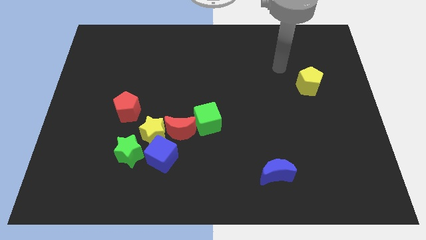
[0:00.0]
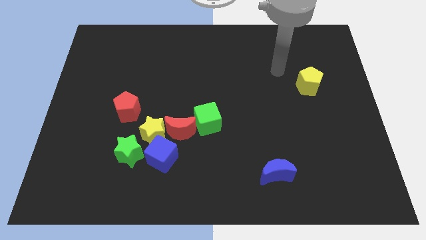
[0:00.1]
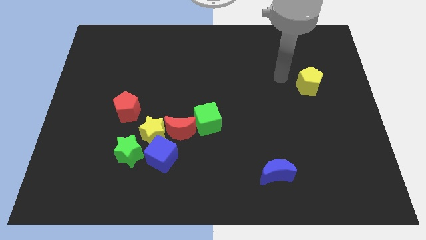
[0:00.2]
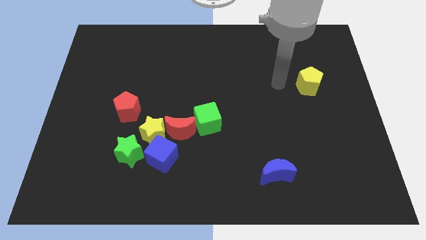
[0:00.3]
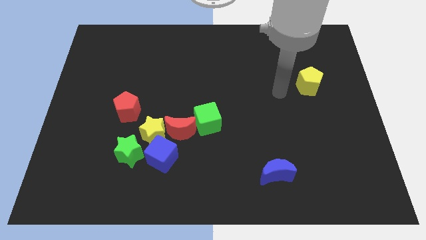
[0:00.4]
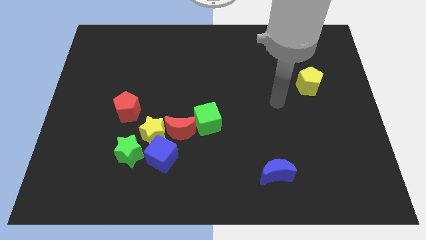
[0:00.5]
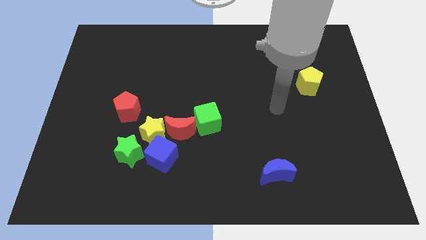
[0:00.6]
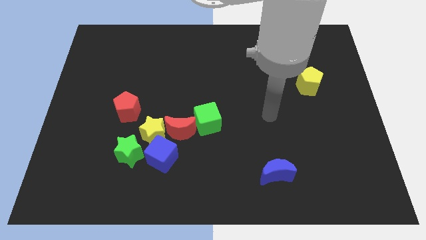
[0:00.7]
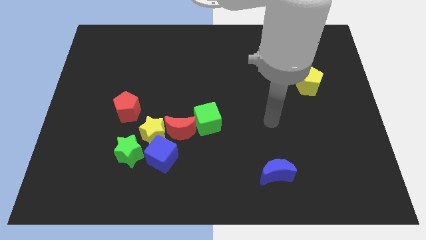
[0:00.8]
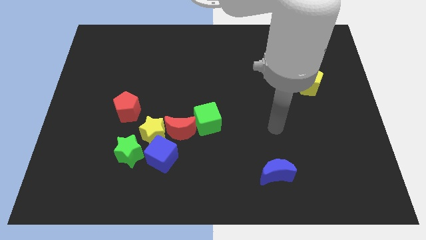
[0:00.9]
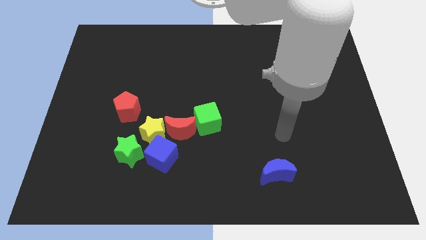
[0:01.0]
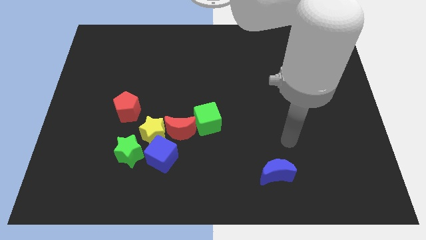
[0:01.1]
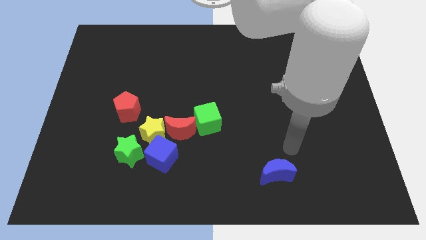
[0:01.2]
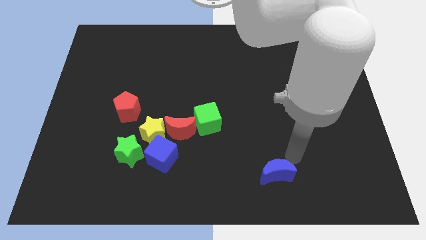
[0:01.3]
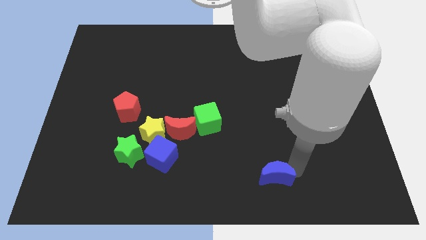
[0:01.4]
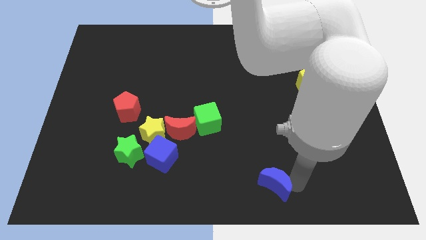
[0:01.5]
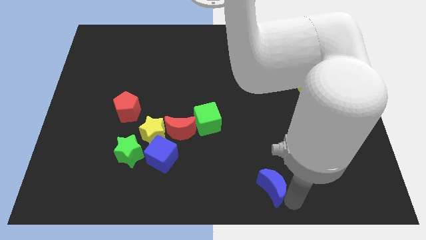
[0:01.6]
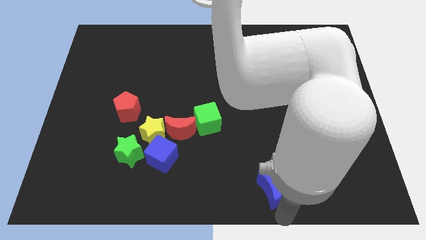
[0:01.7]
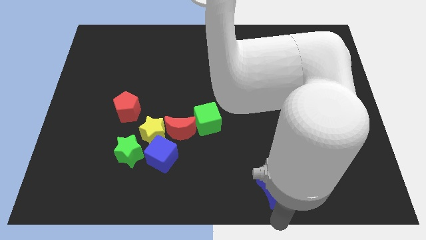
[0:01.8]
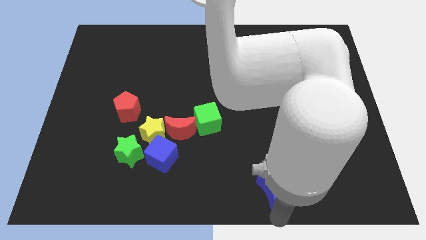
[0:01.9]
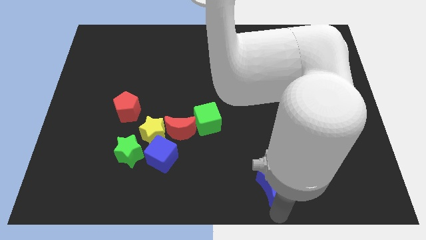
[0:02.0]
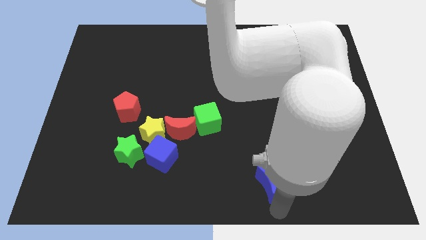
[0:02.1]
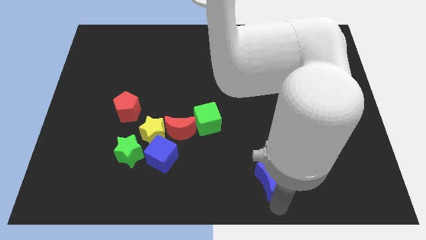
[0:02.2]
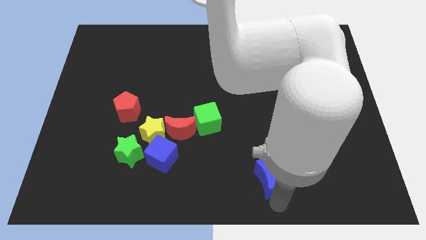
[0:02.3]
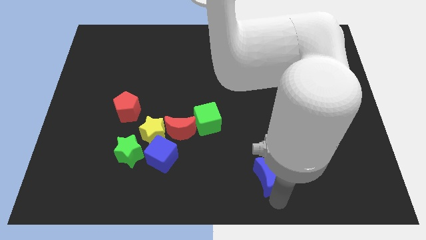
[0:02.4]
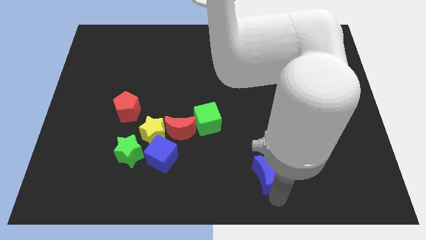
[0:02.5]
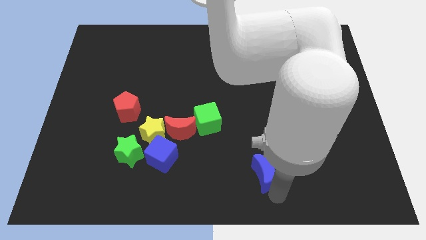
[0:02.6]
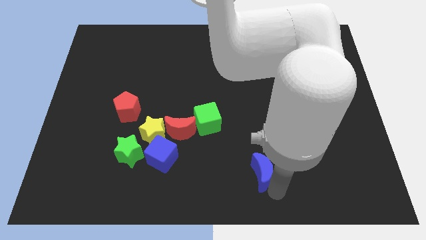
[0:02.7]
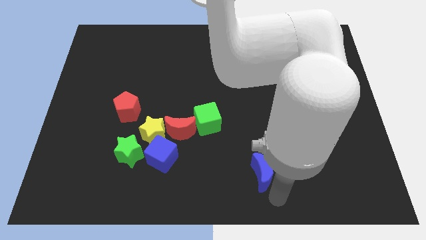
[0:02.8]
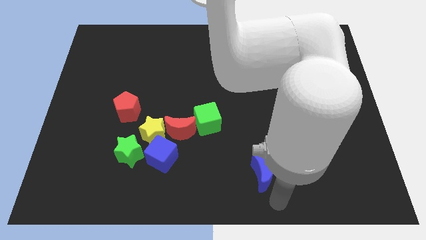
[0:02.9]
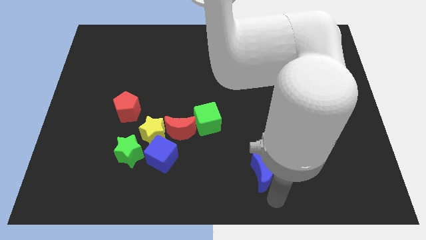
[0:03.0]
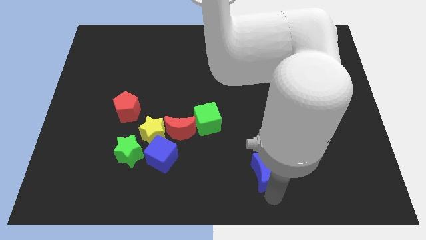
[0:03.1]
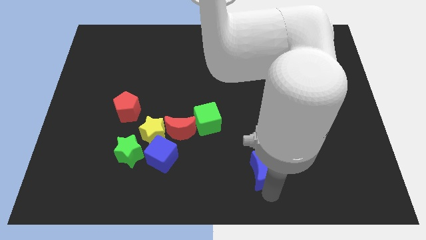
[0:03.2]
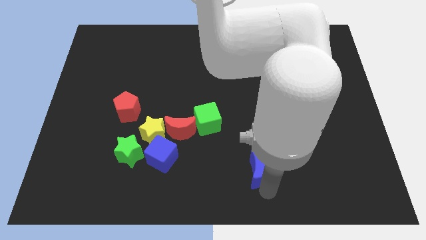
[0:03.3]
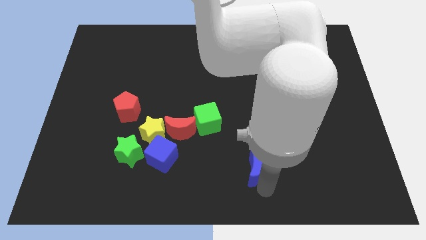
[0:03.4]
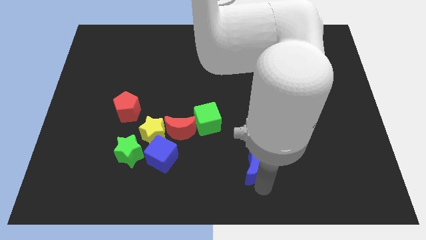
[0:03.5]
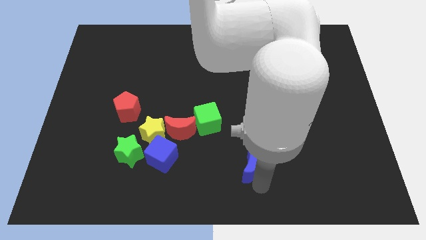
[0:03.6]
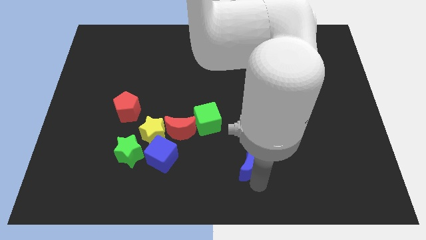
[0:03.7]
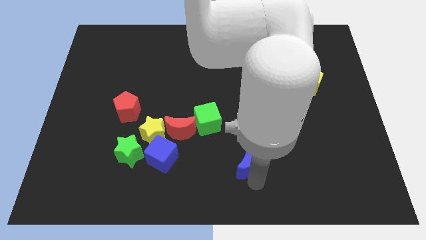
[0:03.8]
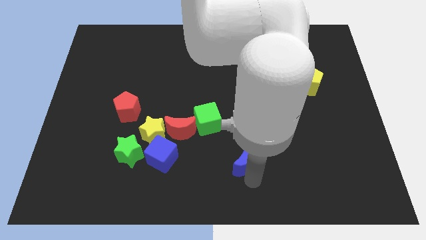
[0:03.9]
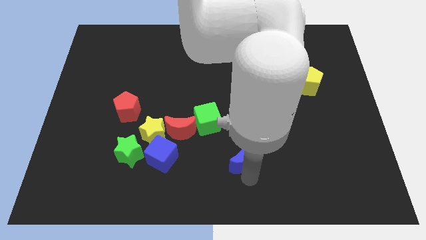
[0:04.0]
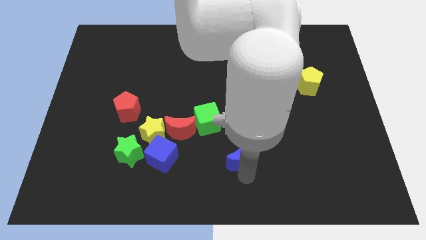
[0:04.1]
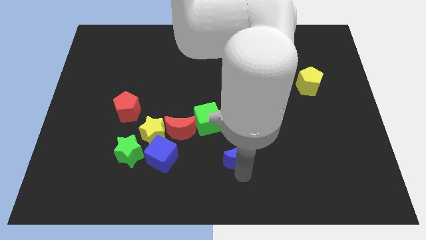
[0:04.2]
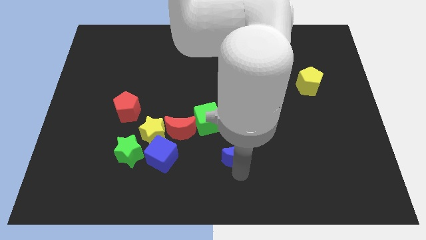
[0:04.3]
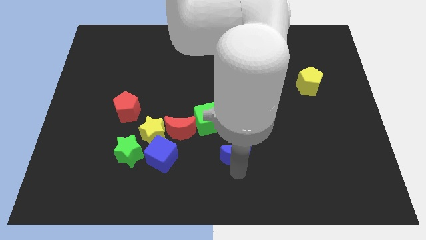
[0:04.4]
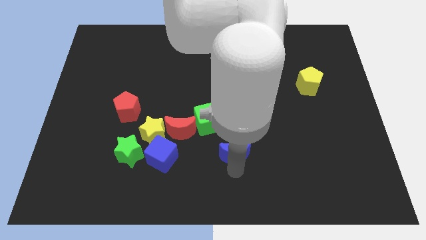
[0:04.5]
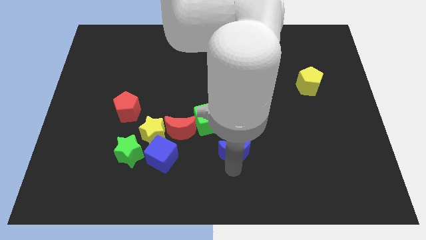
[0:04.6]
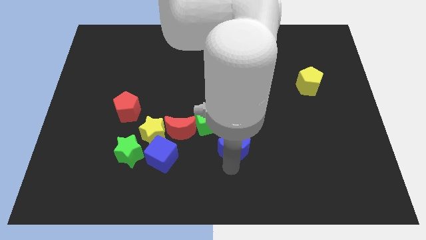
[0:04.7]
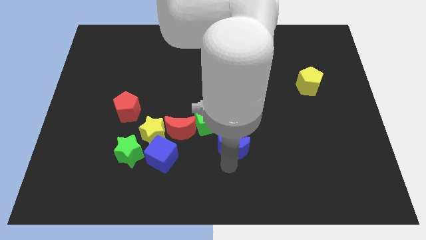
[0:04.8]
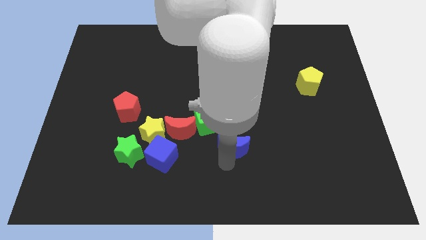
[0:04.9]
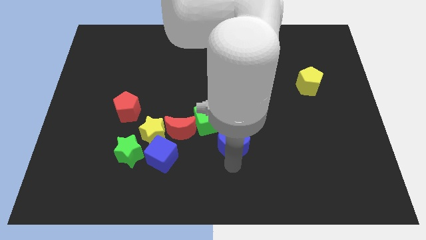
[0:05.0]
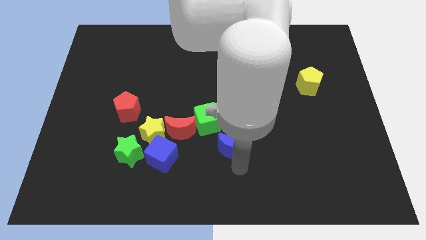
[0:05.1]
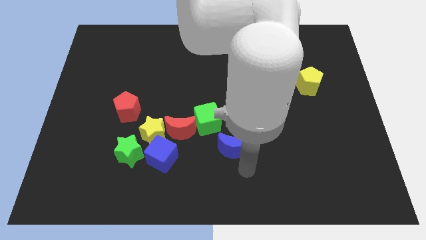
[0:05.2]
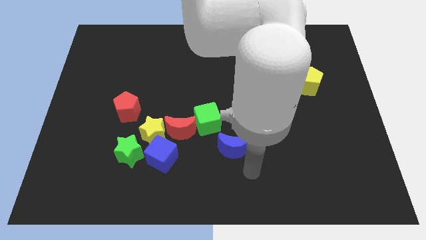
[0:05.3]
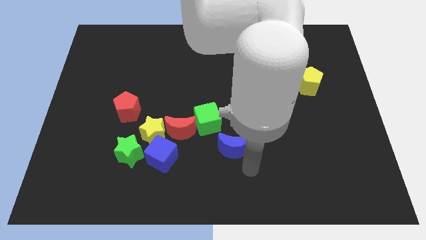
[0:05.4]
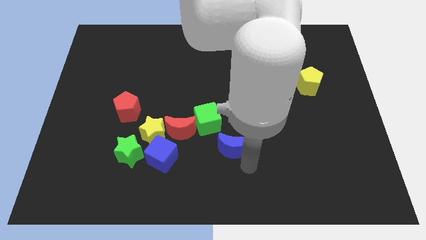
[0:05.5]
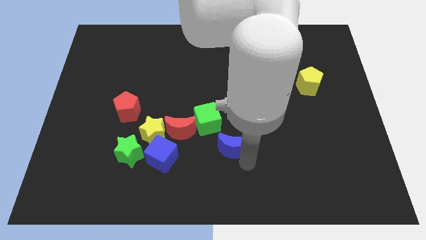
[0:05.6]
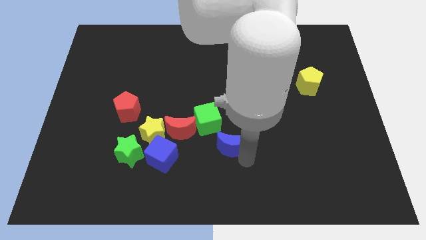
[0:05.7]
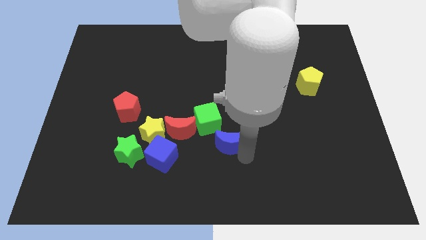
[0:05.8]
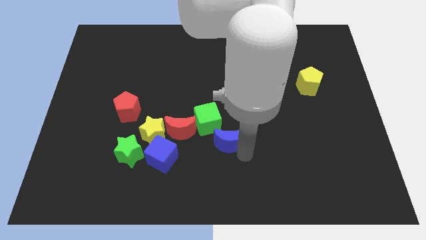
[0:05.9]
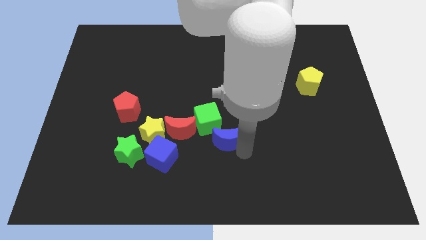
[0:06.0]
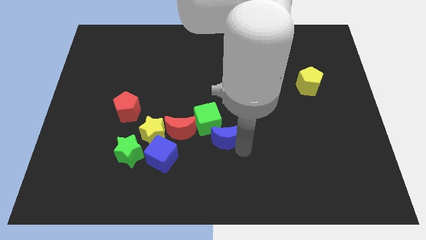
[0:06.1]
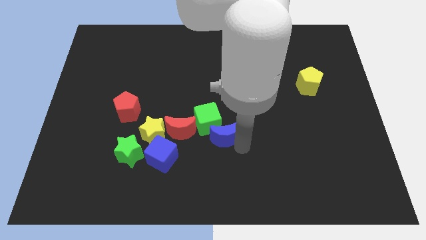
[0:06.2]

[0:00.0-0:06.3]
slide the blue moon towards the green cube

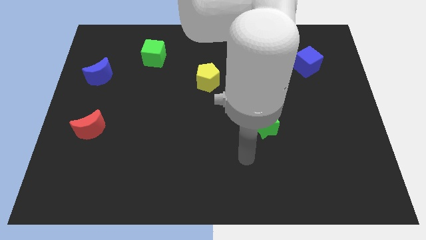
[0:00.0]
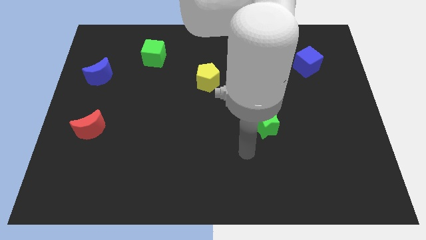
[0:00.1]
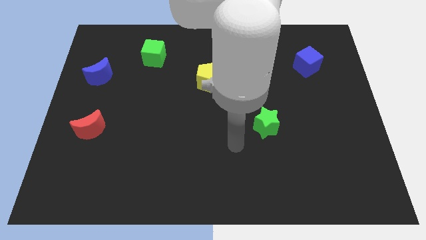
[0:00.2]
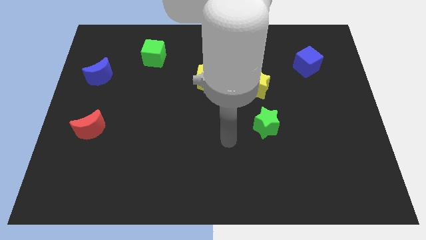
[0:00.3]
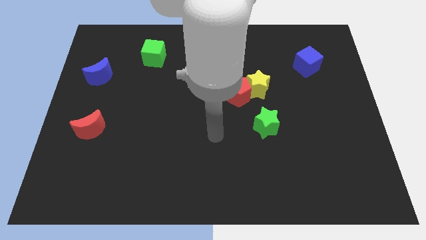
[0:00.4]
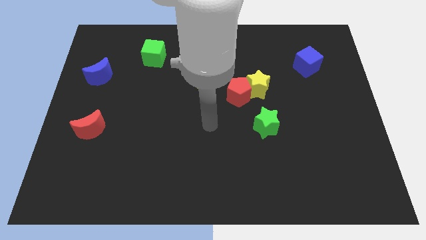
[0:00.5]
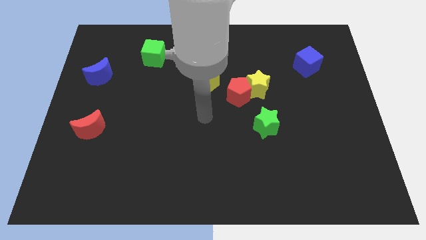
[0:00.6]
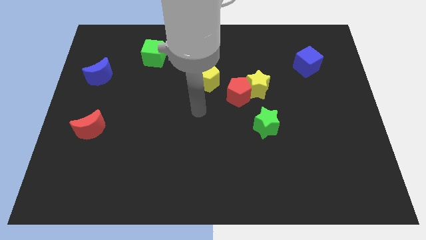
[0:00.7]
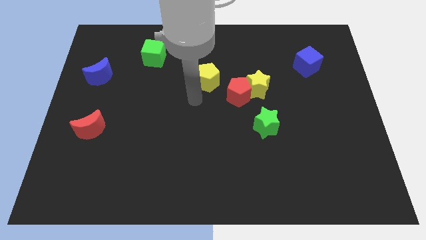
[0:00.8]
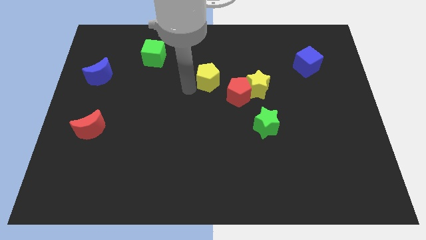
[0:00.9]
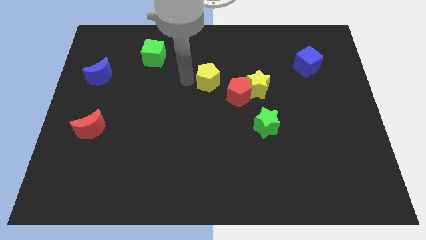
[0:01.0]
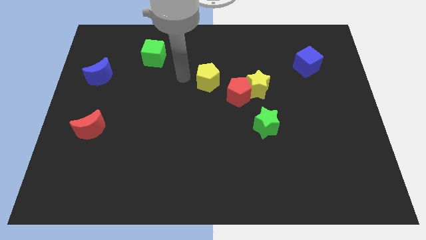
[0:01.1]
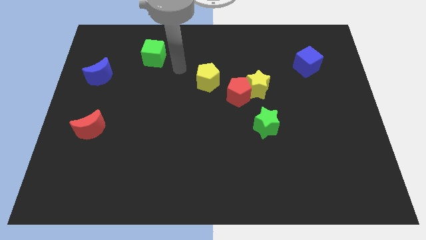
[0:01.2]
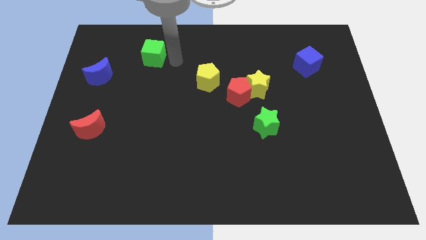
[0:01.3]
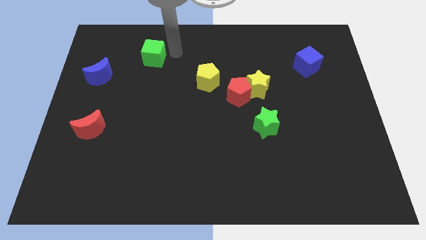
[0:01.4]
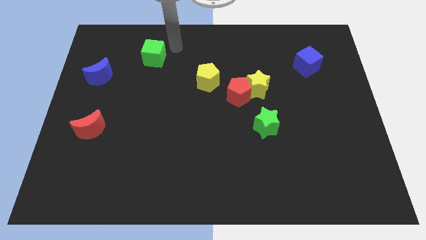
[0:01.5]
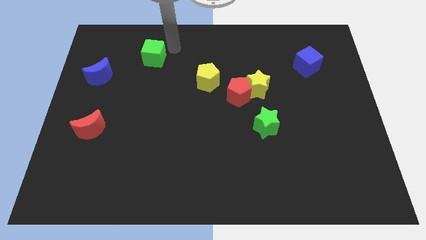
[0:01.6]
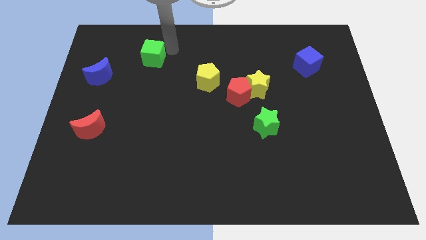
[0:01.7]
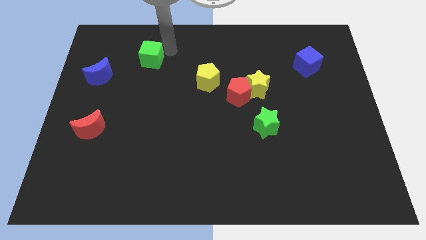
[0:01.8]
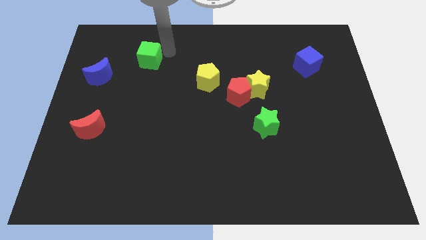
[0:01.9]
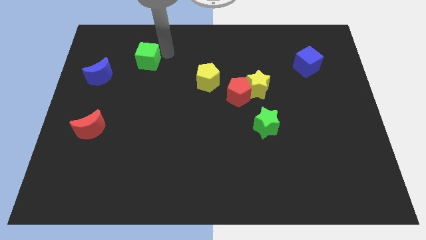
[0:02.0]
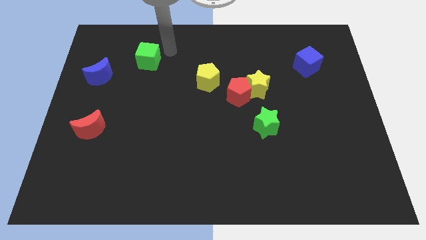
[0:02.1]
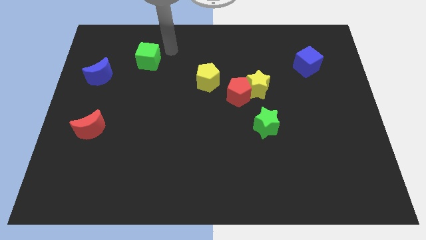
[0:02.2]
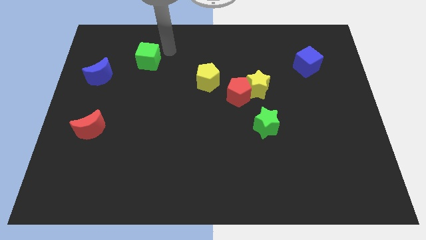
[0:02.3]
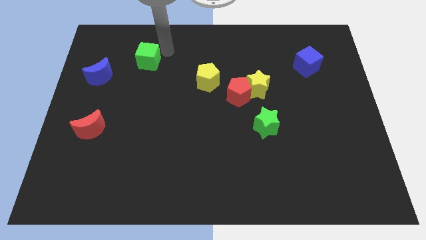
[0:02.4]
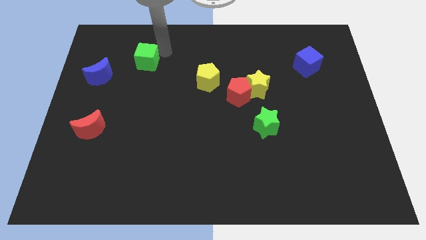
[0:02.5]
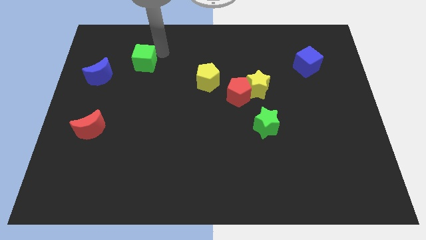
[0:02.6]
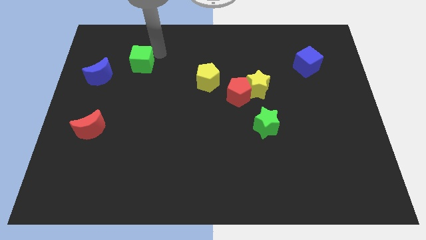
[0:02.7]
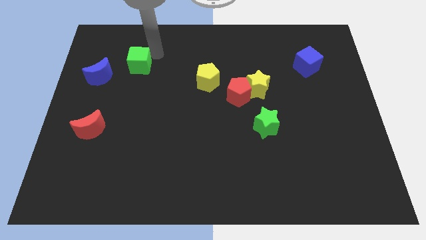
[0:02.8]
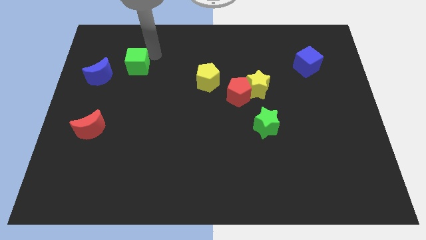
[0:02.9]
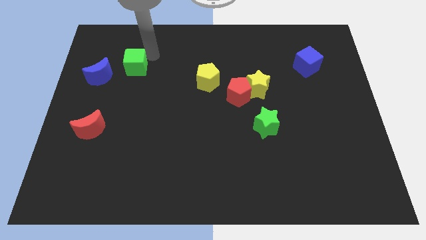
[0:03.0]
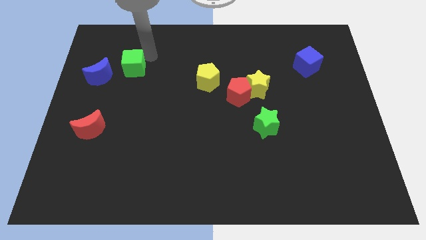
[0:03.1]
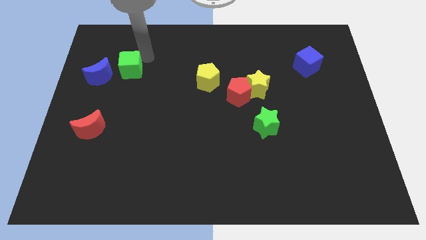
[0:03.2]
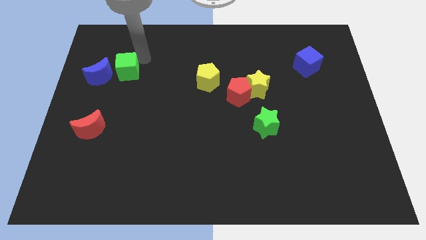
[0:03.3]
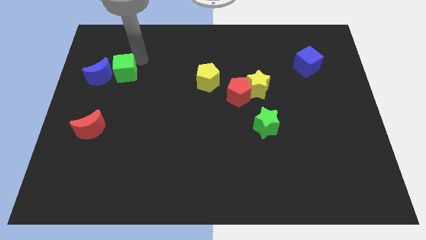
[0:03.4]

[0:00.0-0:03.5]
push the green cube next to the blue moon
